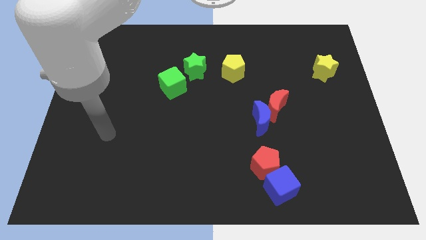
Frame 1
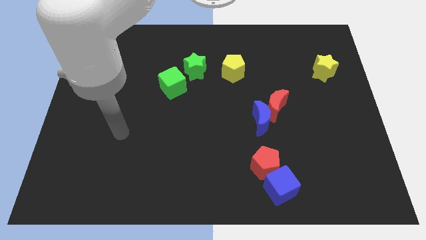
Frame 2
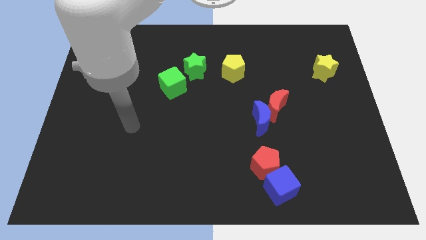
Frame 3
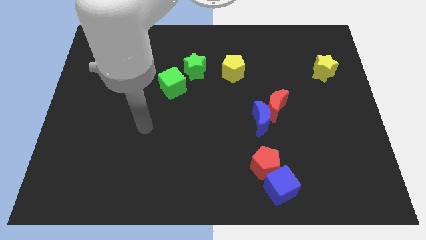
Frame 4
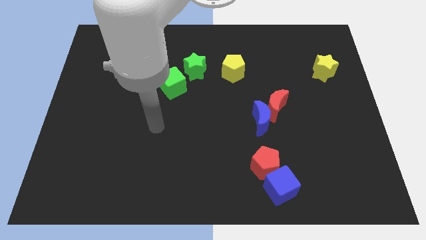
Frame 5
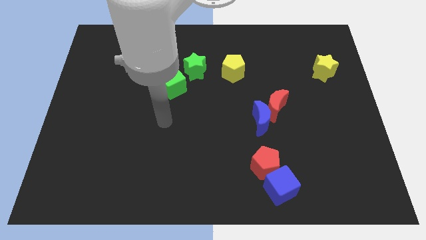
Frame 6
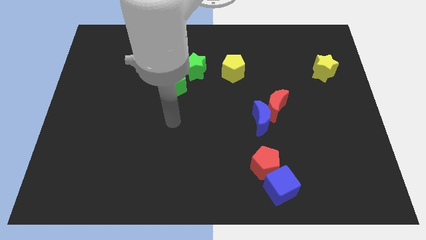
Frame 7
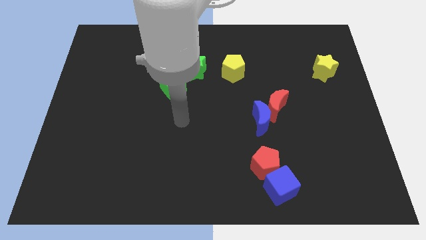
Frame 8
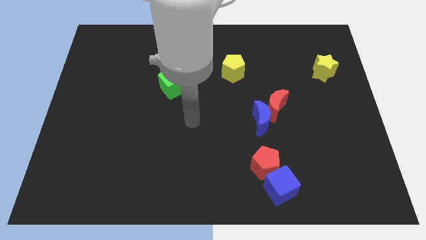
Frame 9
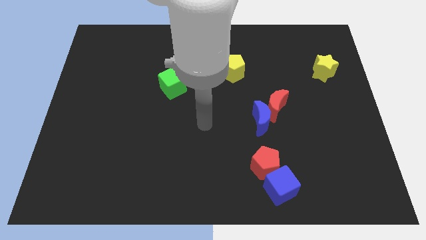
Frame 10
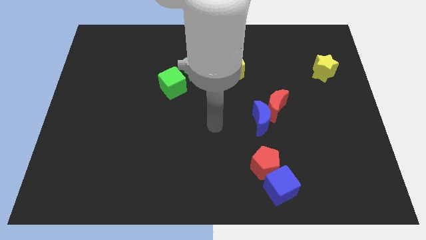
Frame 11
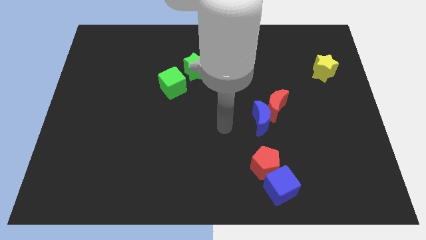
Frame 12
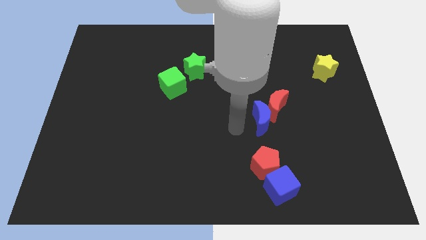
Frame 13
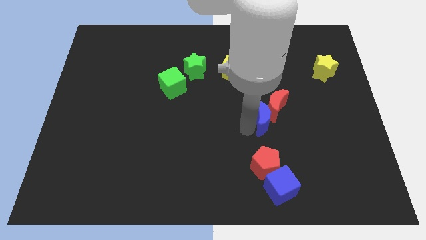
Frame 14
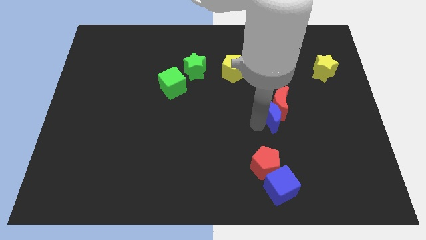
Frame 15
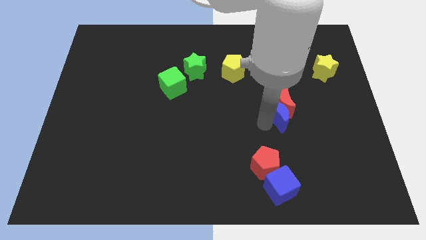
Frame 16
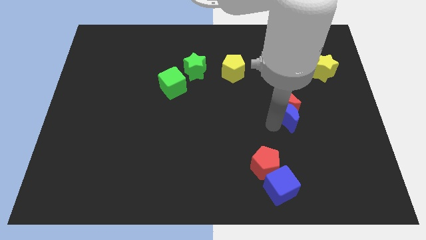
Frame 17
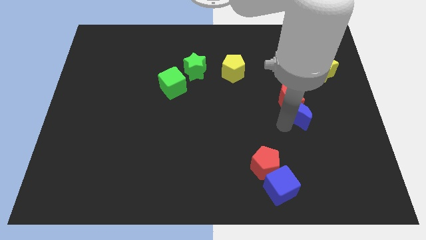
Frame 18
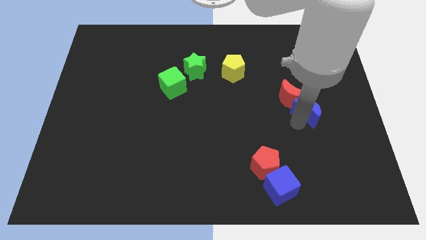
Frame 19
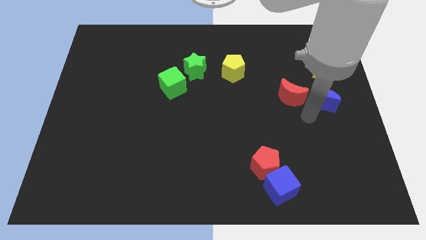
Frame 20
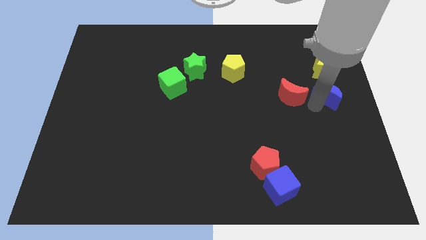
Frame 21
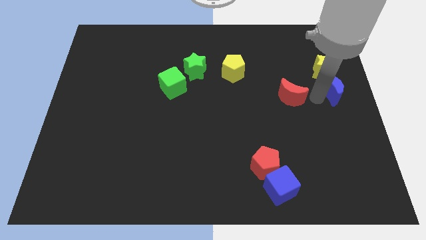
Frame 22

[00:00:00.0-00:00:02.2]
move the red moon away from the blue moon

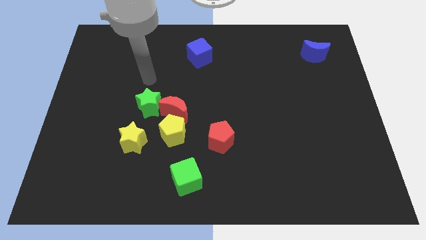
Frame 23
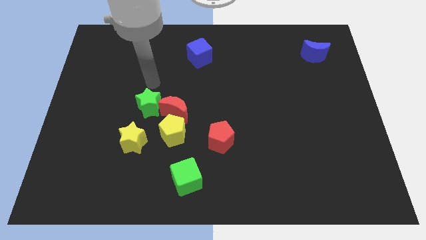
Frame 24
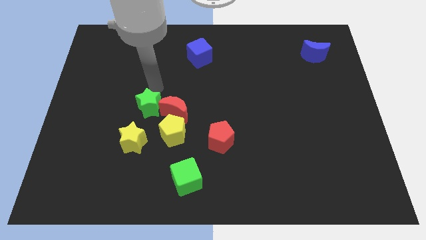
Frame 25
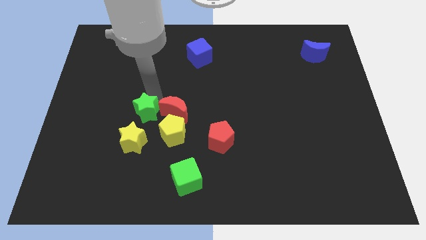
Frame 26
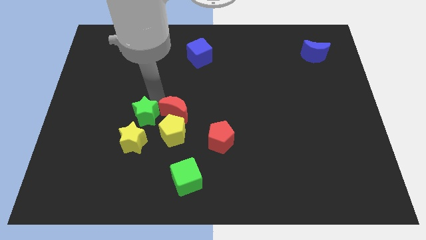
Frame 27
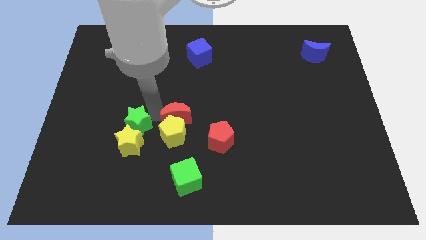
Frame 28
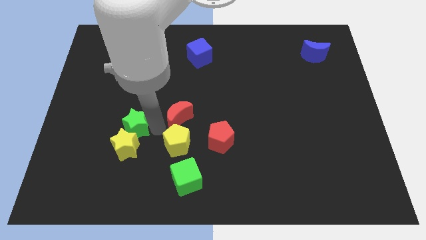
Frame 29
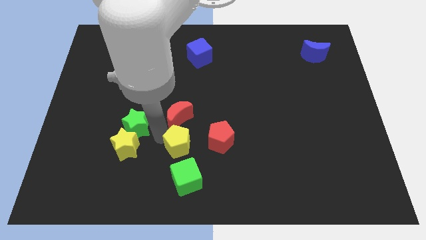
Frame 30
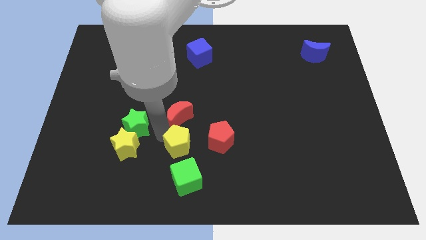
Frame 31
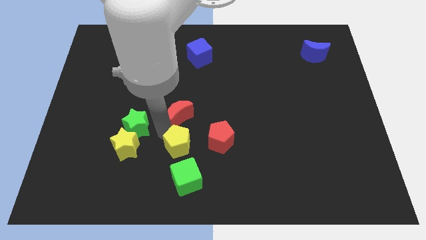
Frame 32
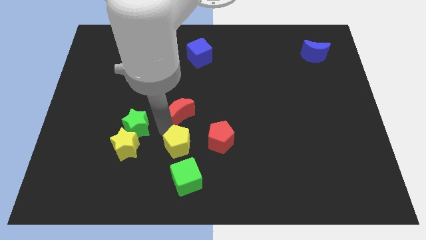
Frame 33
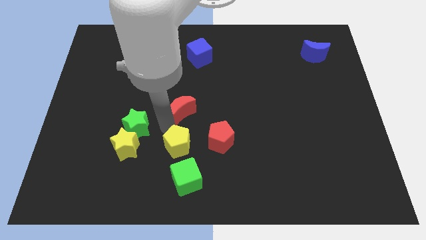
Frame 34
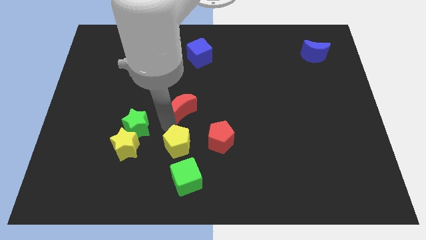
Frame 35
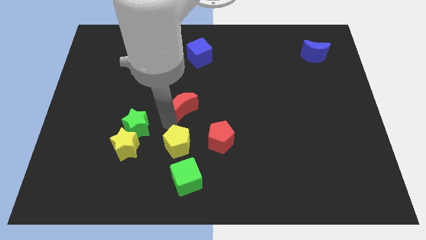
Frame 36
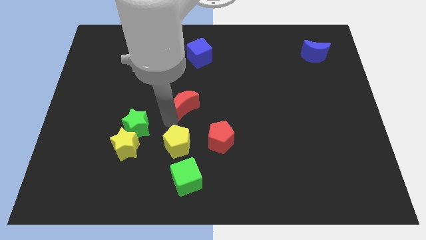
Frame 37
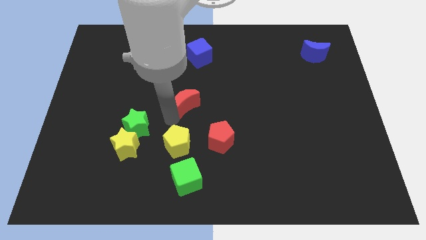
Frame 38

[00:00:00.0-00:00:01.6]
move the red moon away from the yellow pentagon and green star

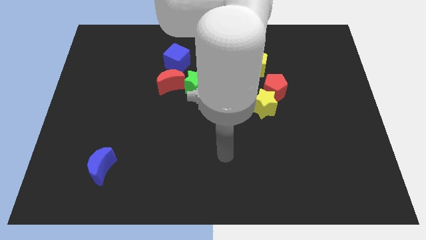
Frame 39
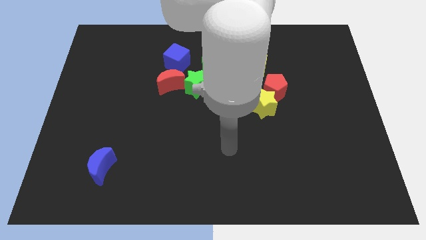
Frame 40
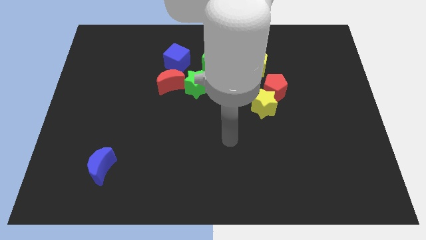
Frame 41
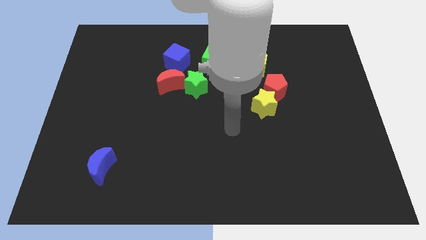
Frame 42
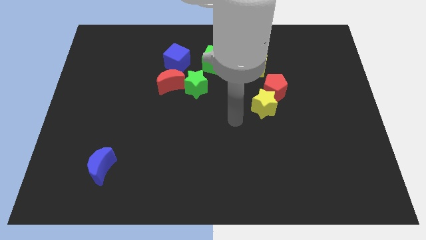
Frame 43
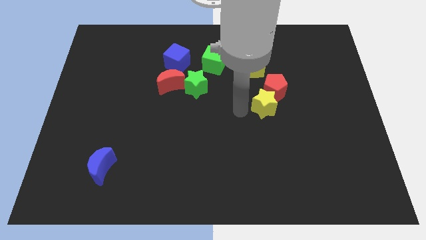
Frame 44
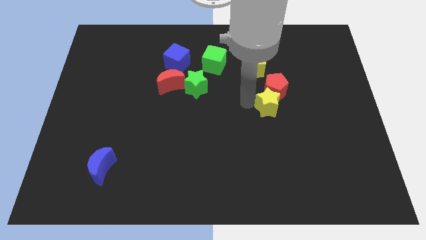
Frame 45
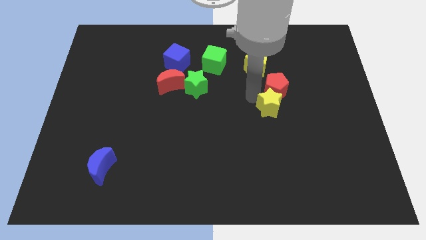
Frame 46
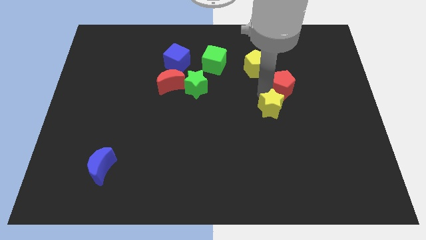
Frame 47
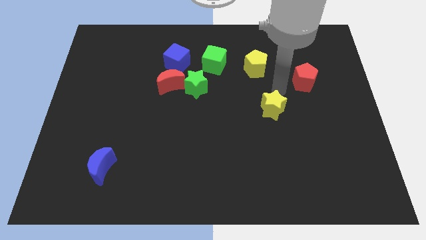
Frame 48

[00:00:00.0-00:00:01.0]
pull the yellow star apart from the red pentagon

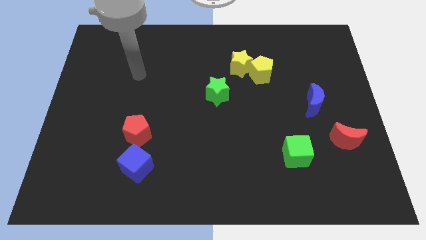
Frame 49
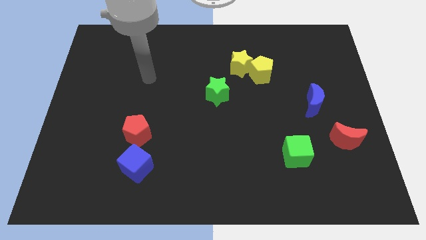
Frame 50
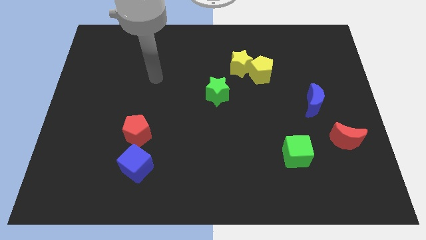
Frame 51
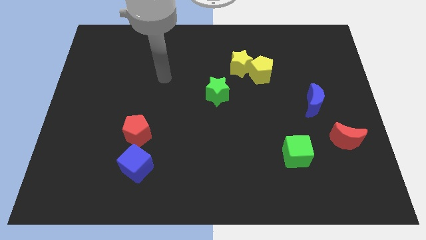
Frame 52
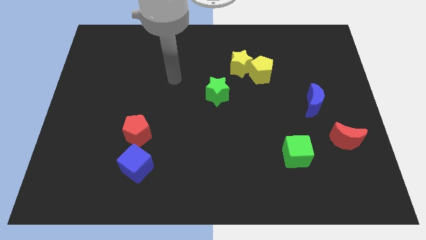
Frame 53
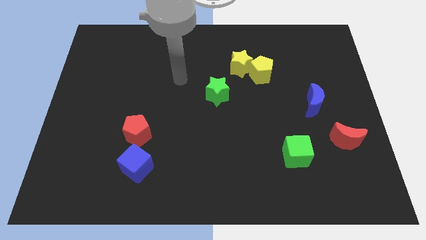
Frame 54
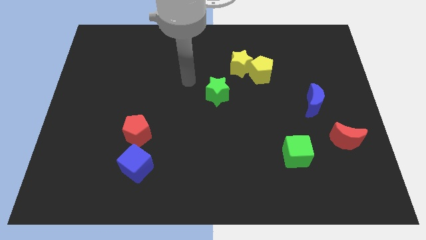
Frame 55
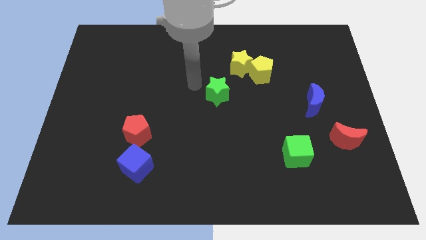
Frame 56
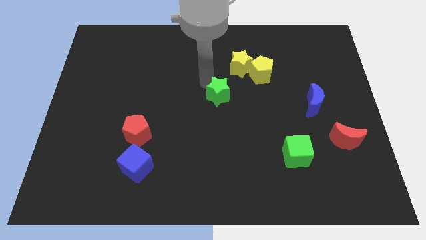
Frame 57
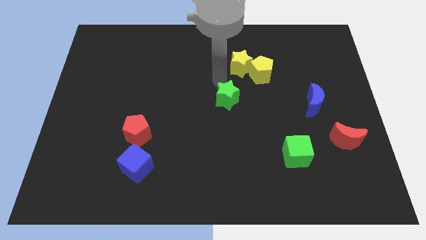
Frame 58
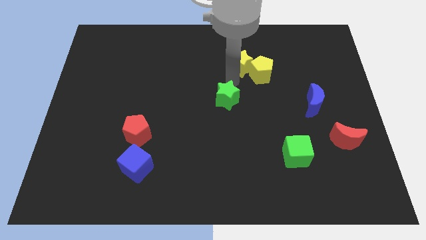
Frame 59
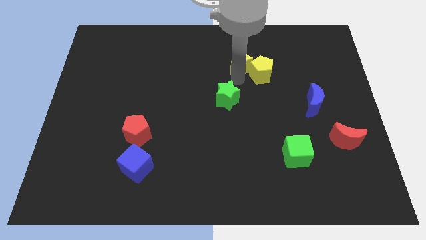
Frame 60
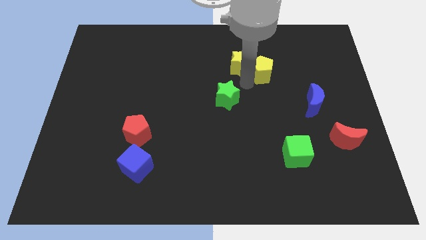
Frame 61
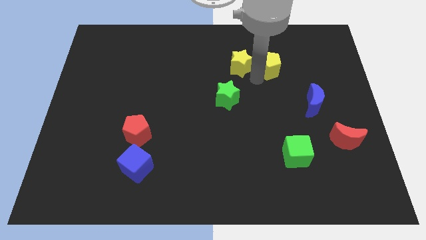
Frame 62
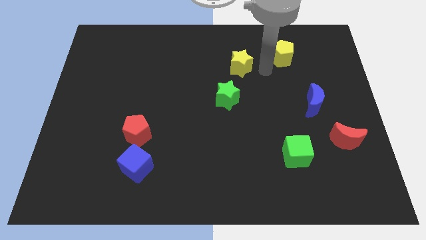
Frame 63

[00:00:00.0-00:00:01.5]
pull the yellow star apart from the yellow pentagon

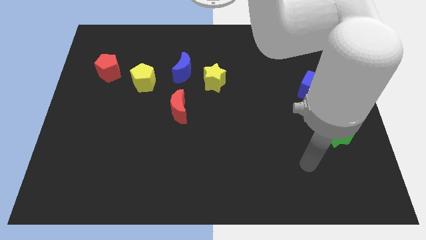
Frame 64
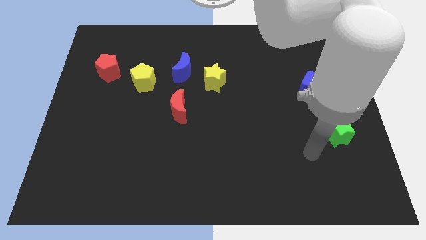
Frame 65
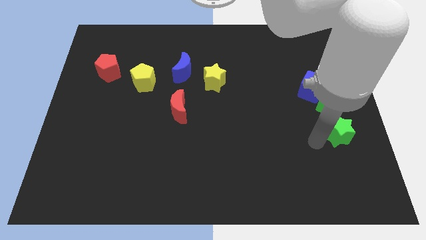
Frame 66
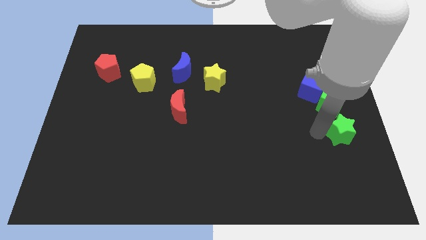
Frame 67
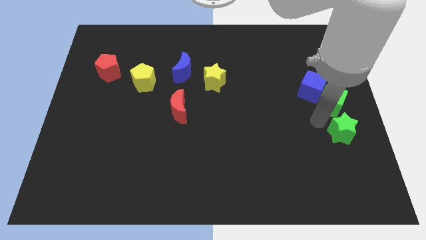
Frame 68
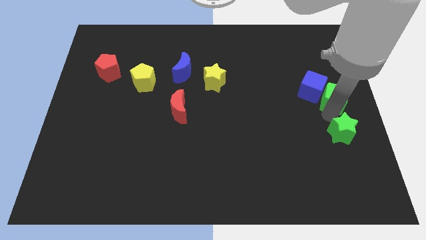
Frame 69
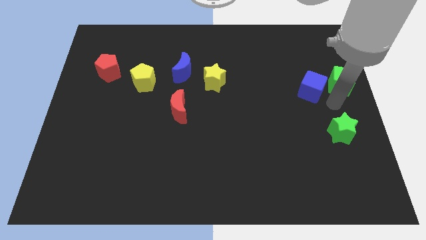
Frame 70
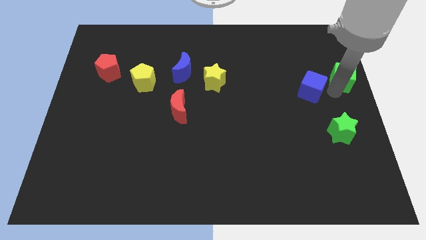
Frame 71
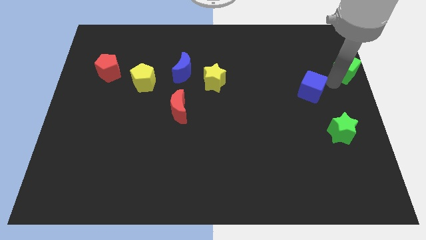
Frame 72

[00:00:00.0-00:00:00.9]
pull the blue cube apart from the green cube

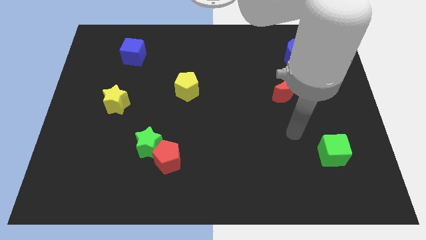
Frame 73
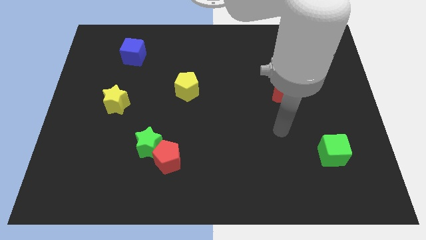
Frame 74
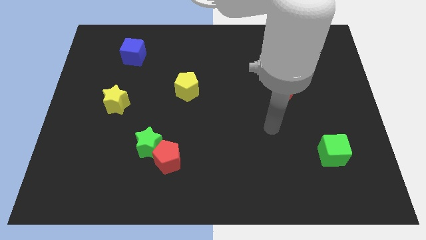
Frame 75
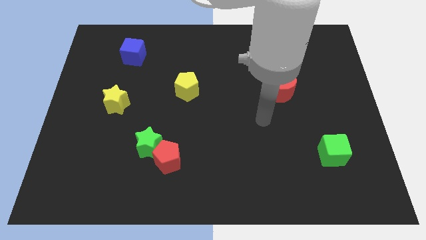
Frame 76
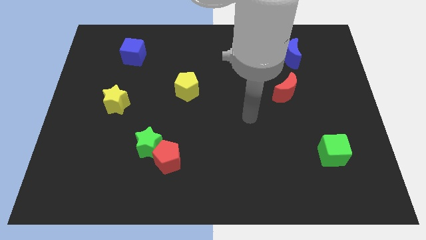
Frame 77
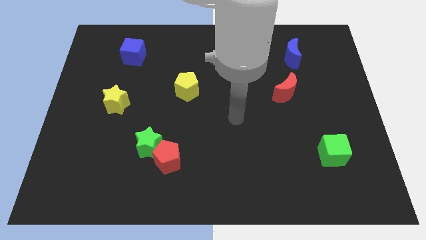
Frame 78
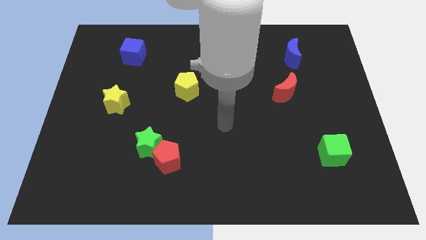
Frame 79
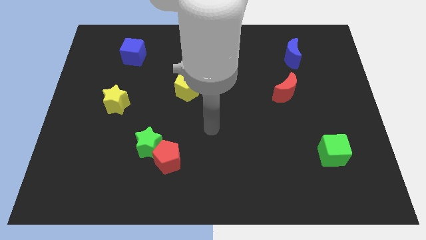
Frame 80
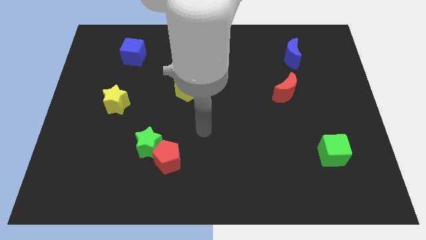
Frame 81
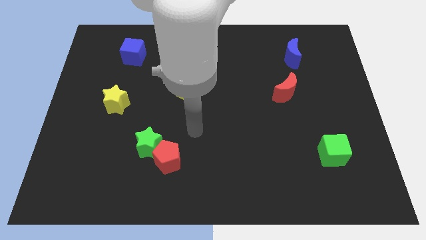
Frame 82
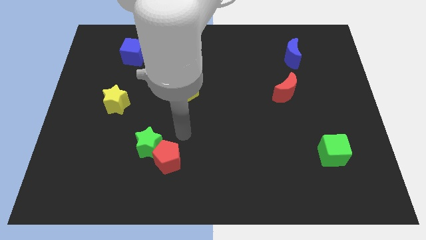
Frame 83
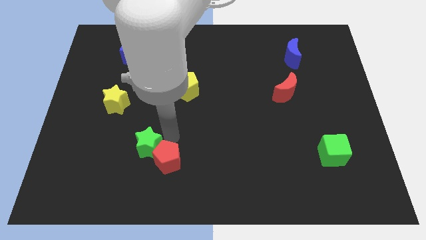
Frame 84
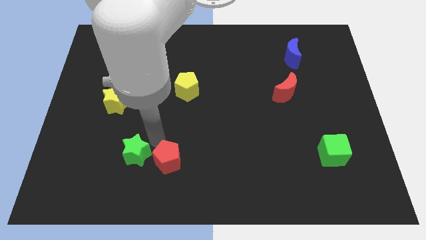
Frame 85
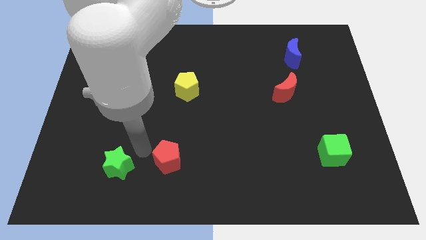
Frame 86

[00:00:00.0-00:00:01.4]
move the red pentagon away from the green star

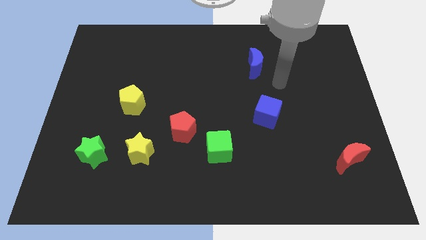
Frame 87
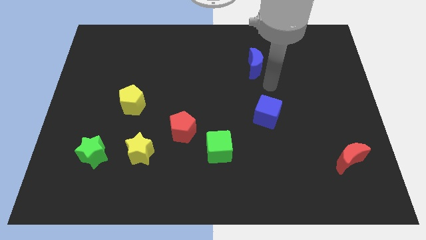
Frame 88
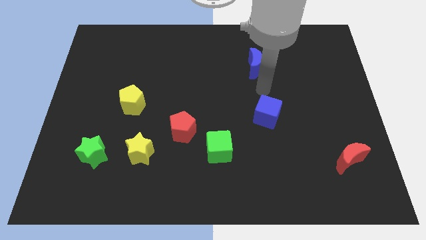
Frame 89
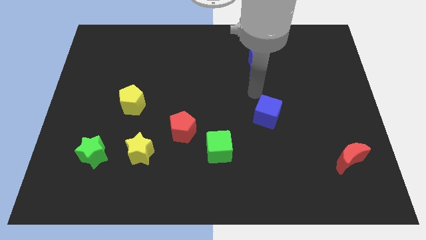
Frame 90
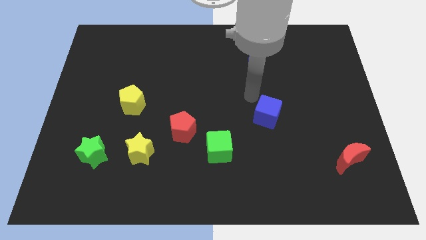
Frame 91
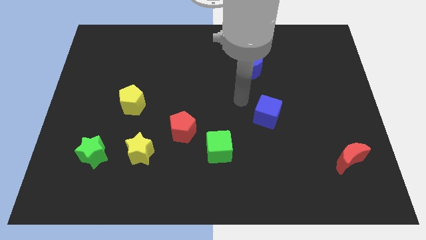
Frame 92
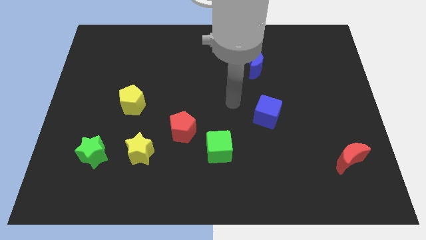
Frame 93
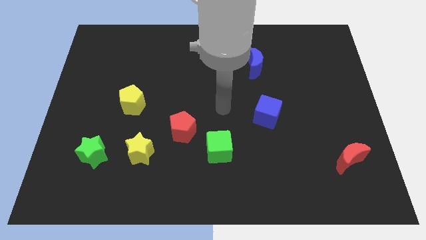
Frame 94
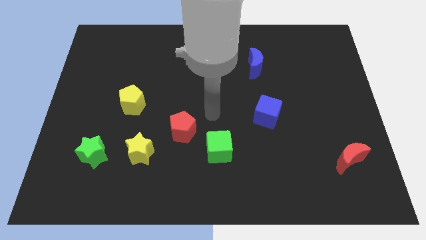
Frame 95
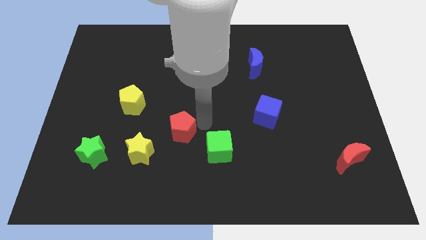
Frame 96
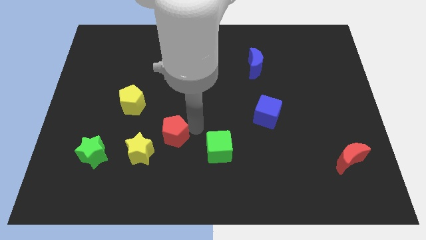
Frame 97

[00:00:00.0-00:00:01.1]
move the green cube away from the red pentagon
